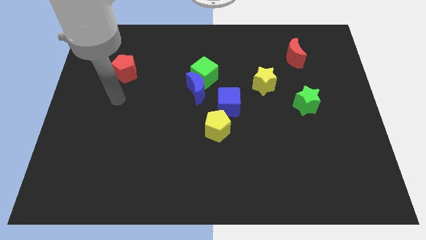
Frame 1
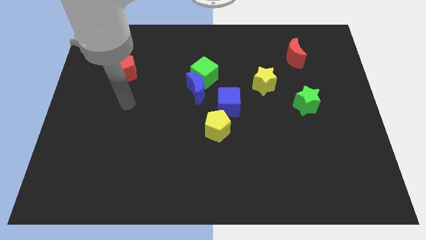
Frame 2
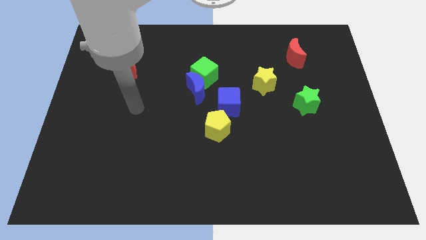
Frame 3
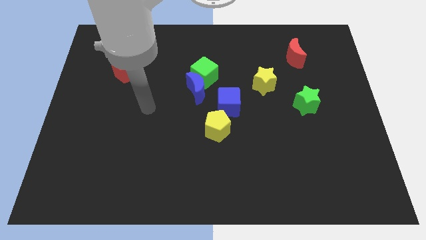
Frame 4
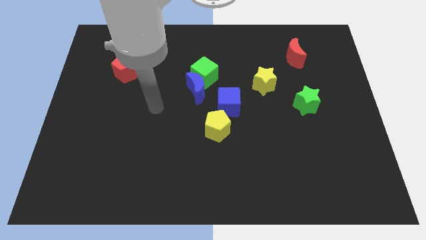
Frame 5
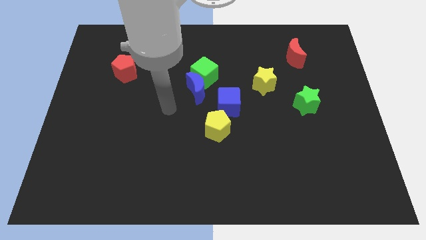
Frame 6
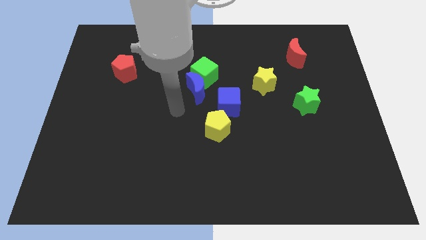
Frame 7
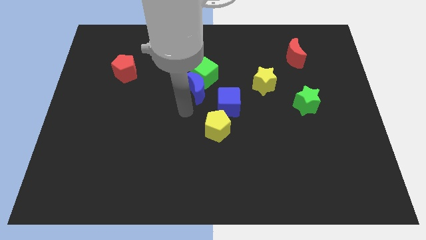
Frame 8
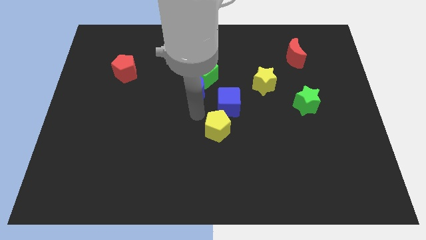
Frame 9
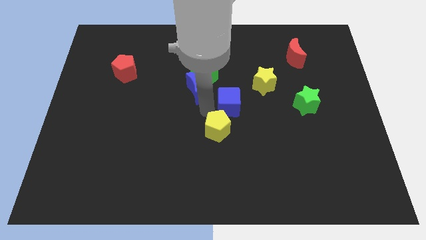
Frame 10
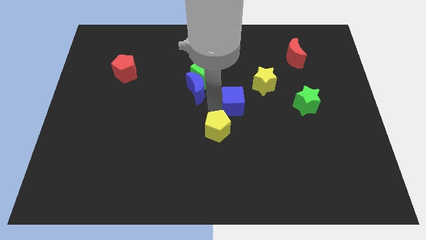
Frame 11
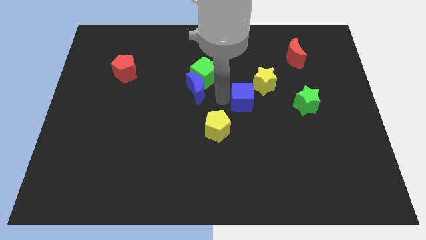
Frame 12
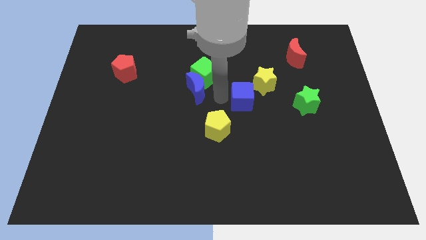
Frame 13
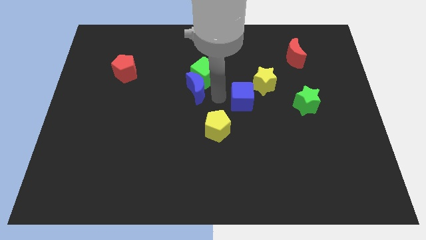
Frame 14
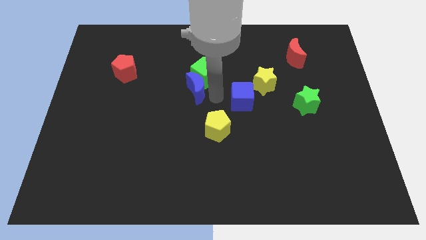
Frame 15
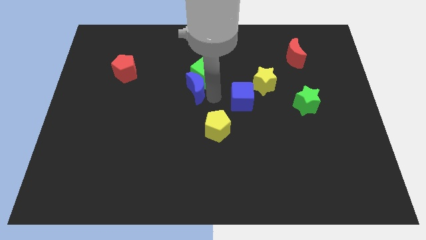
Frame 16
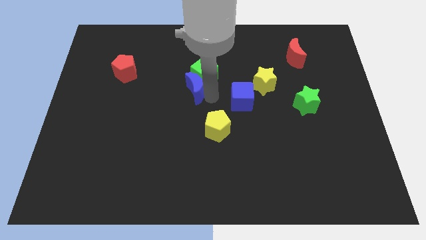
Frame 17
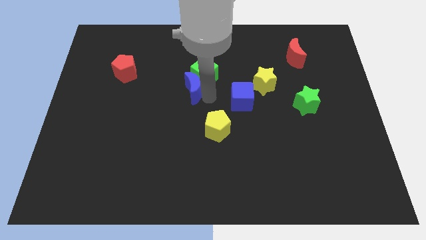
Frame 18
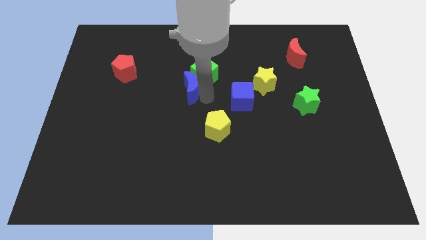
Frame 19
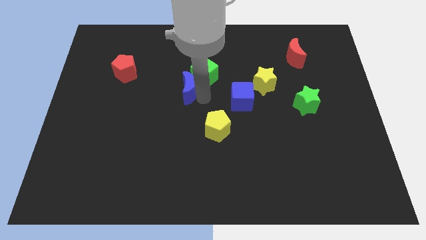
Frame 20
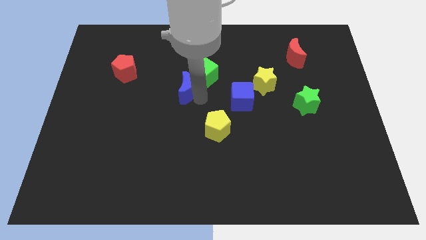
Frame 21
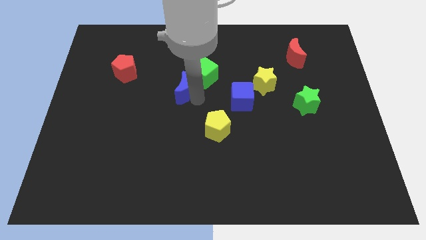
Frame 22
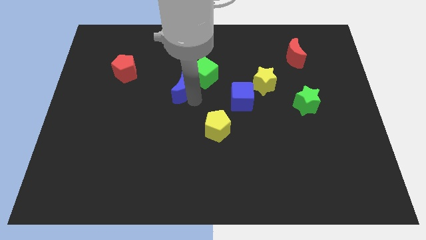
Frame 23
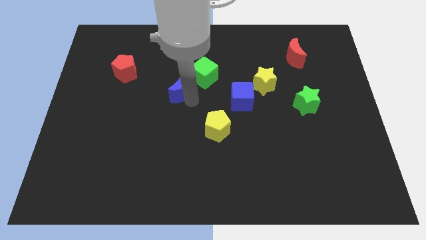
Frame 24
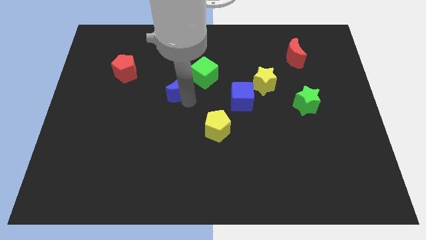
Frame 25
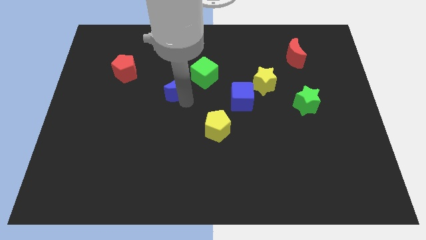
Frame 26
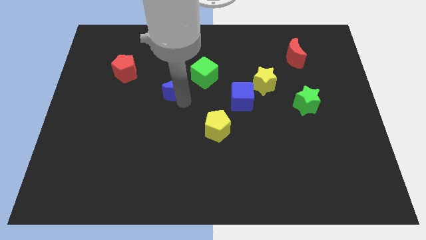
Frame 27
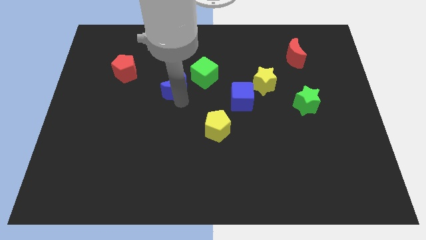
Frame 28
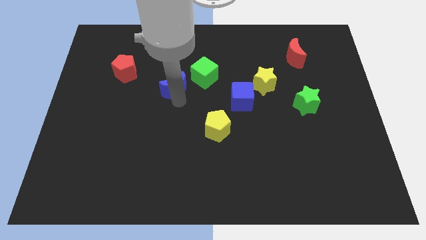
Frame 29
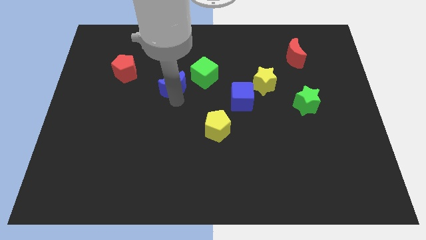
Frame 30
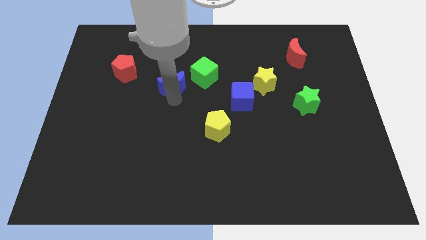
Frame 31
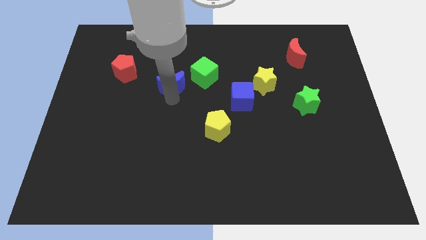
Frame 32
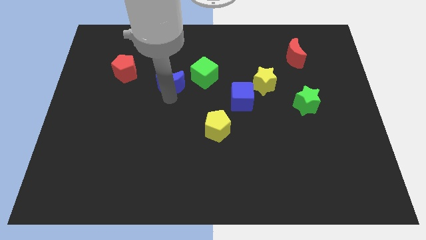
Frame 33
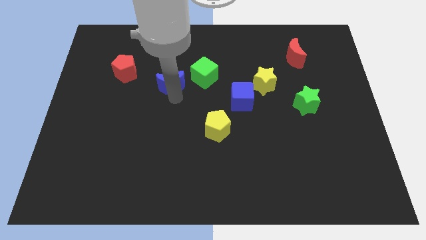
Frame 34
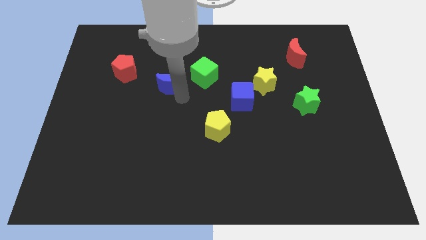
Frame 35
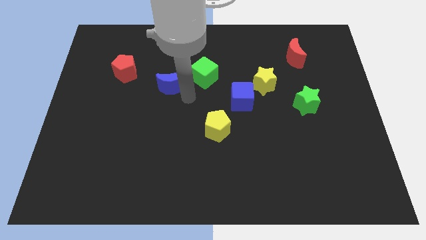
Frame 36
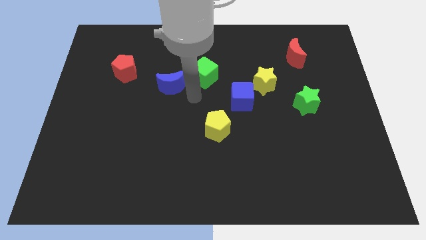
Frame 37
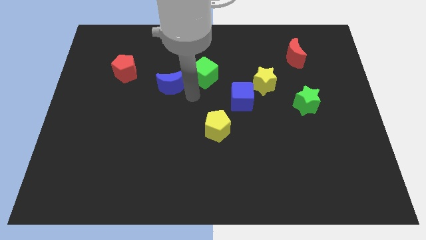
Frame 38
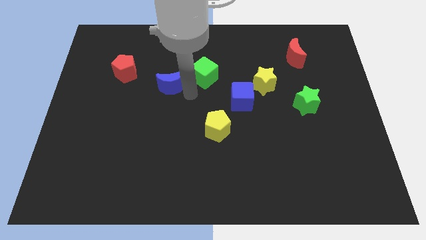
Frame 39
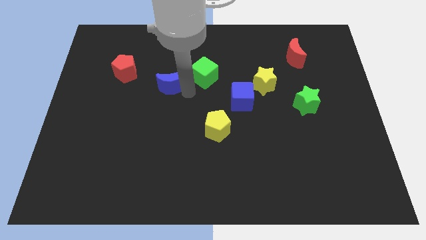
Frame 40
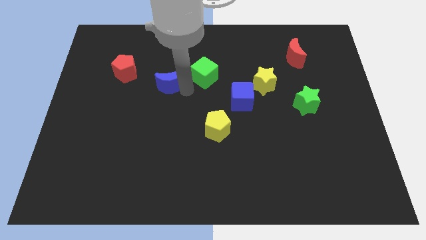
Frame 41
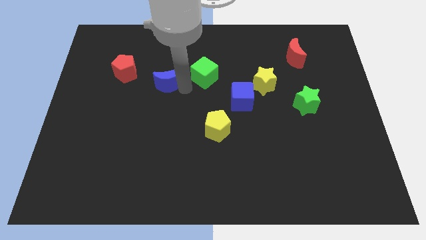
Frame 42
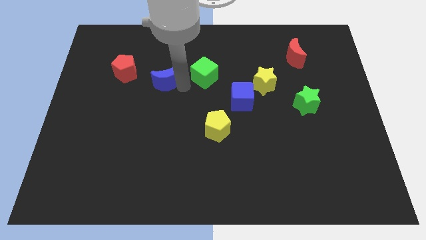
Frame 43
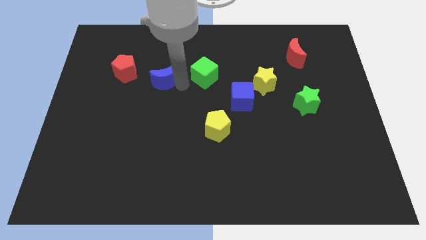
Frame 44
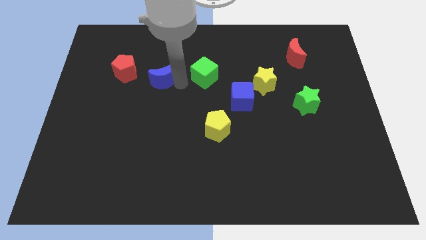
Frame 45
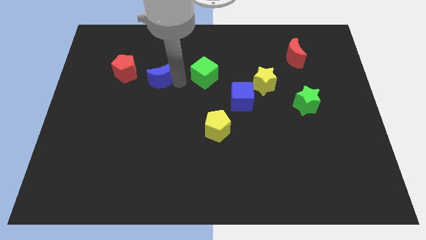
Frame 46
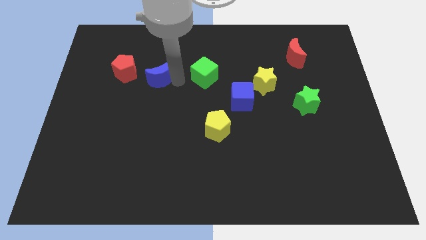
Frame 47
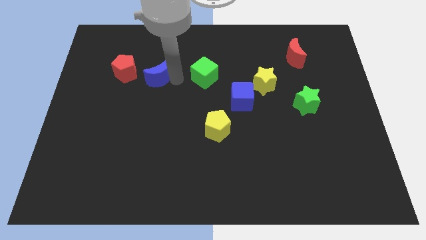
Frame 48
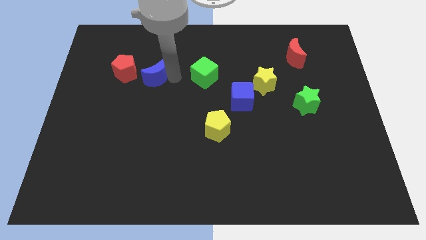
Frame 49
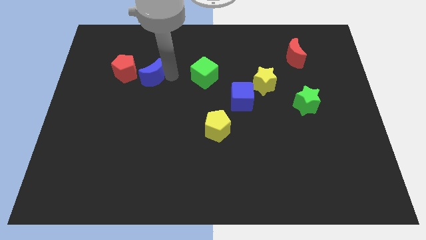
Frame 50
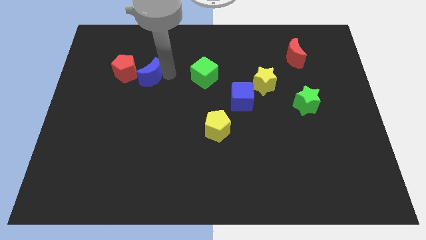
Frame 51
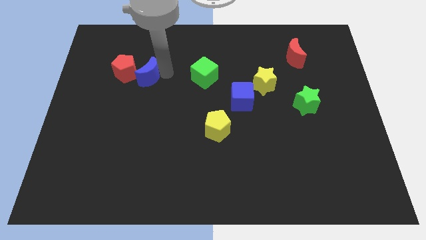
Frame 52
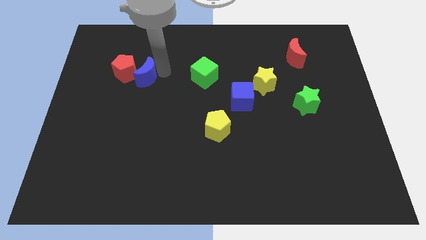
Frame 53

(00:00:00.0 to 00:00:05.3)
slide the blue moon close to the red pentagon
